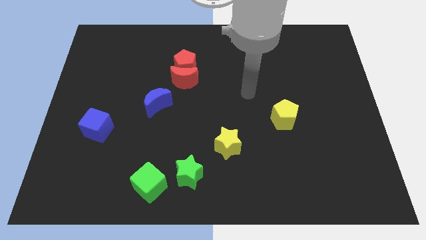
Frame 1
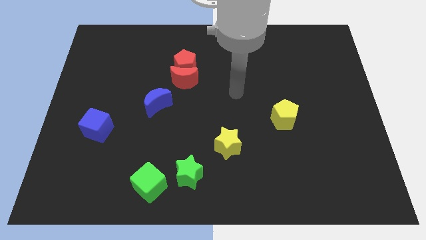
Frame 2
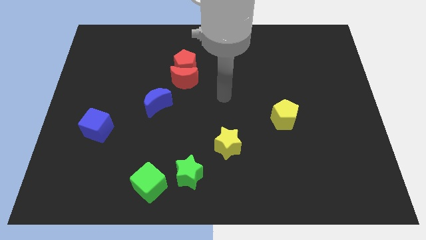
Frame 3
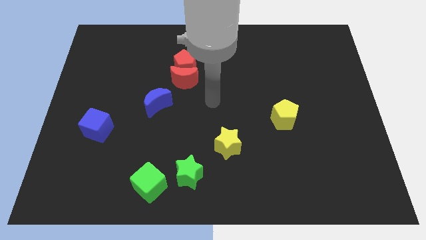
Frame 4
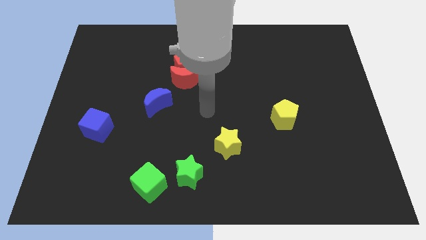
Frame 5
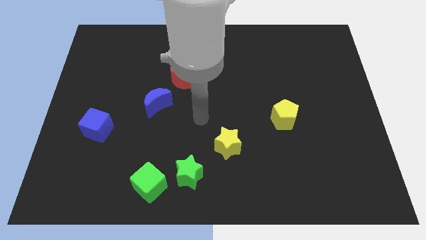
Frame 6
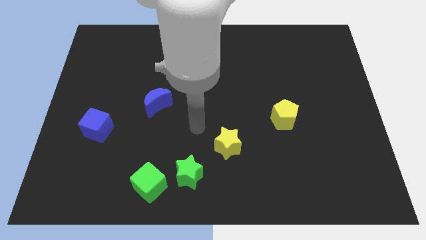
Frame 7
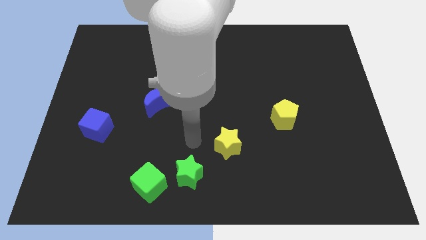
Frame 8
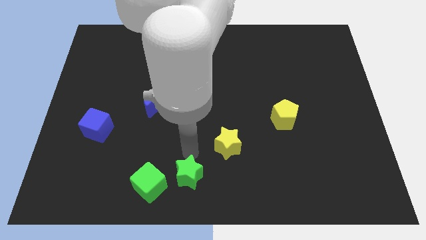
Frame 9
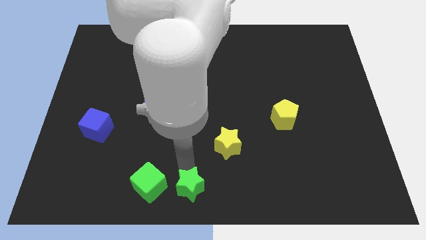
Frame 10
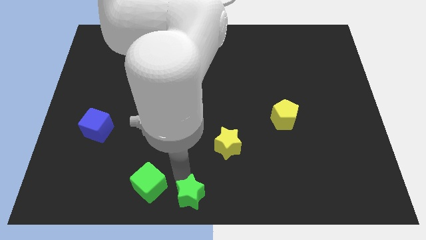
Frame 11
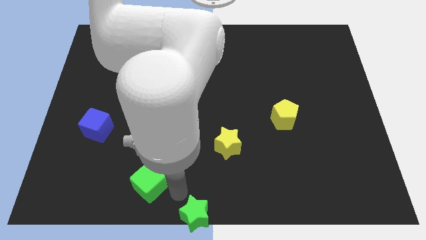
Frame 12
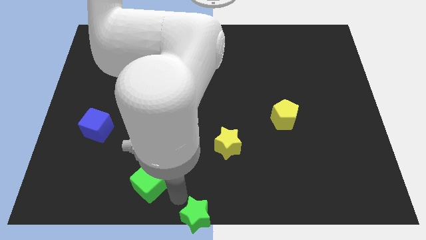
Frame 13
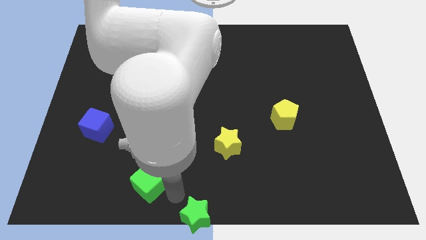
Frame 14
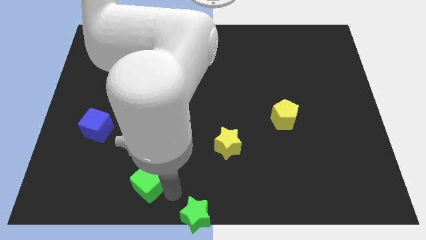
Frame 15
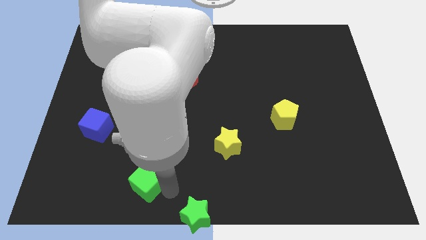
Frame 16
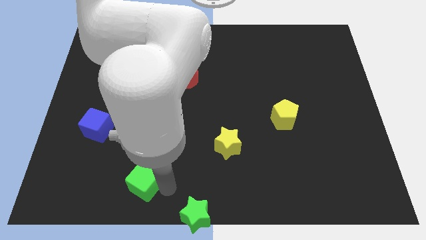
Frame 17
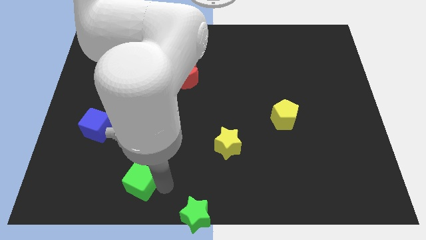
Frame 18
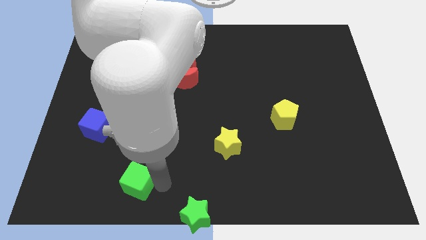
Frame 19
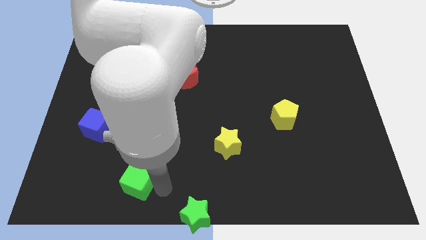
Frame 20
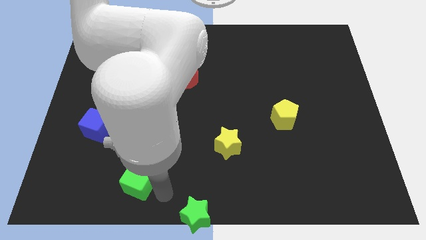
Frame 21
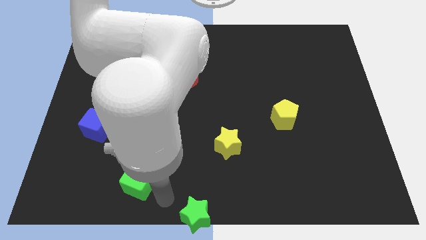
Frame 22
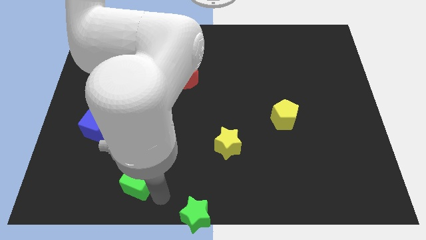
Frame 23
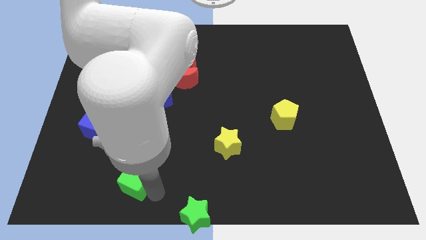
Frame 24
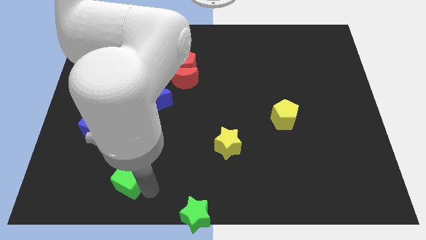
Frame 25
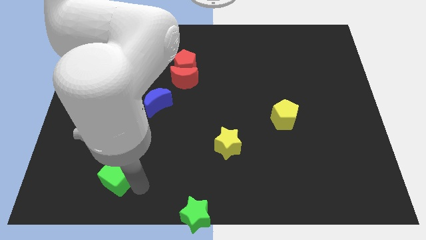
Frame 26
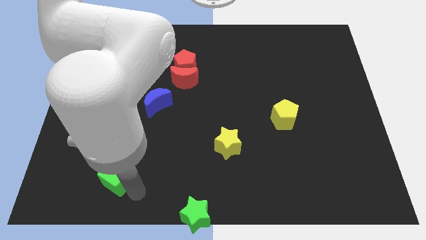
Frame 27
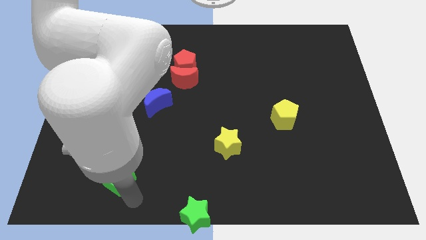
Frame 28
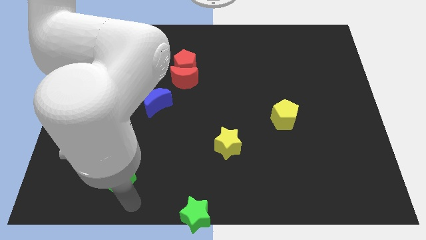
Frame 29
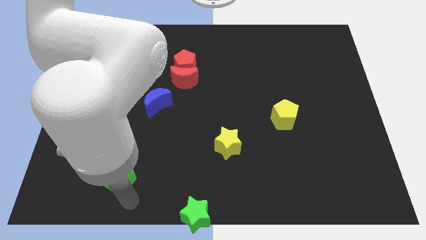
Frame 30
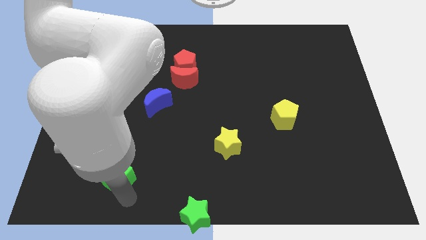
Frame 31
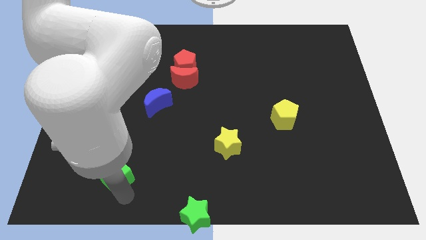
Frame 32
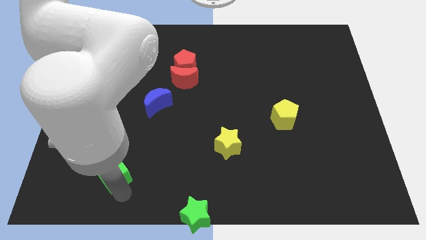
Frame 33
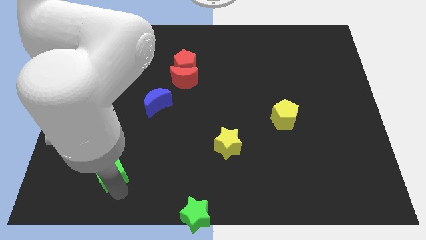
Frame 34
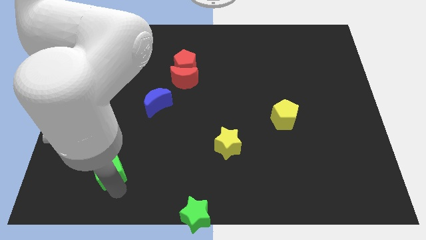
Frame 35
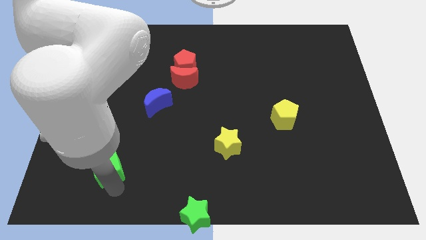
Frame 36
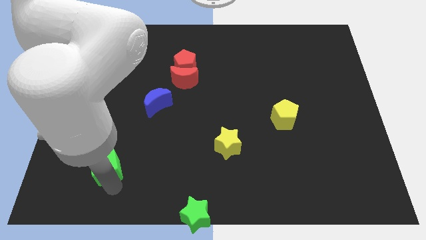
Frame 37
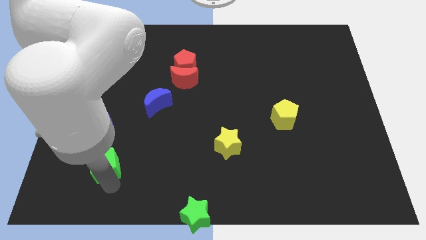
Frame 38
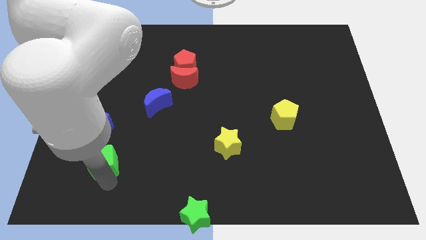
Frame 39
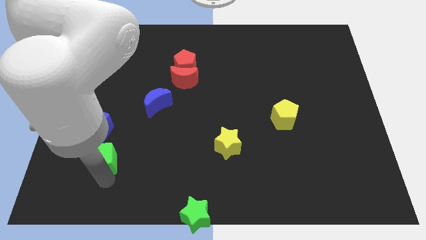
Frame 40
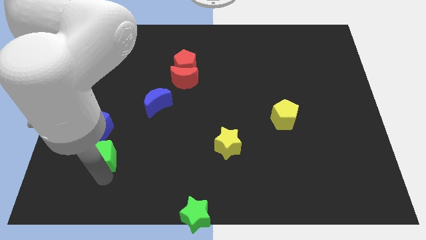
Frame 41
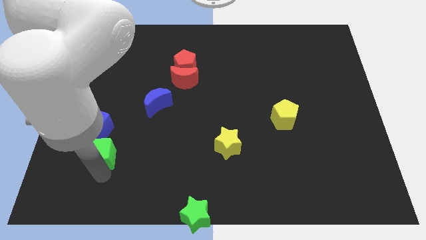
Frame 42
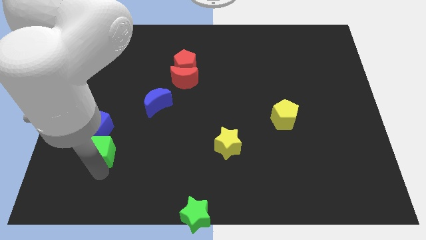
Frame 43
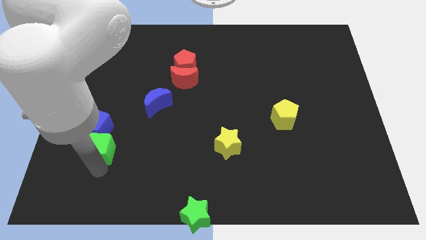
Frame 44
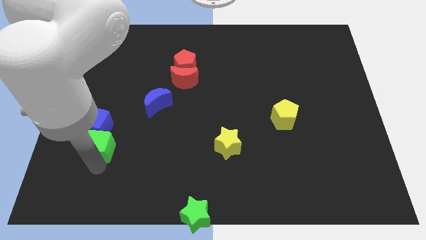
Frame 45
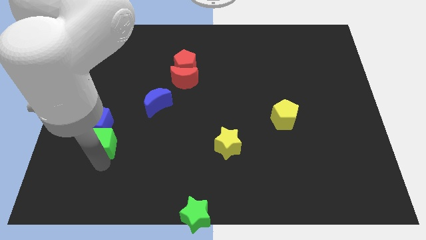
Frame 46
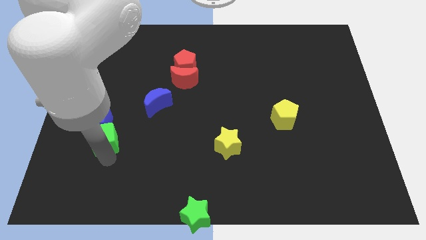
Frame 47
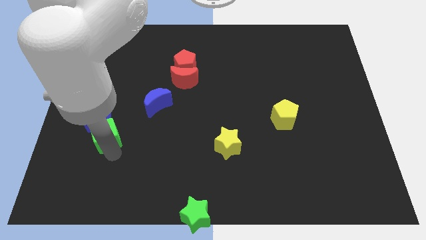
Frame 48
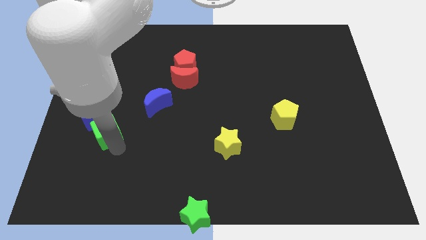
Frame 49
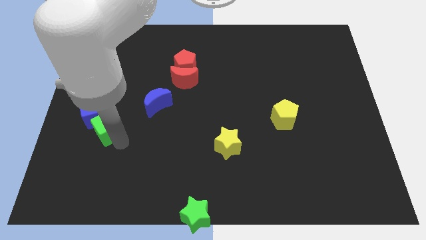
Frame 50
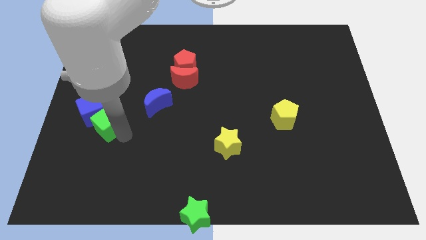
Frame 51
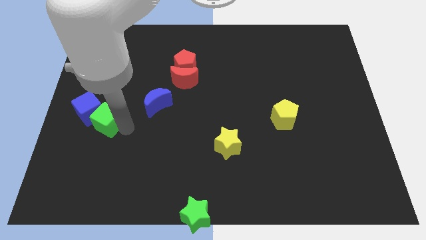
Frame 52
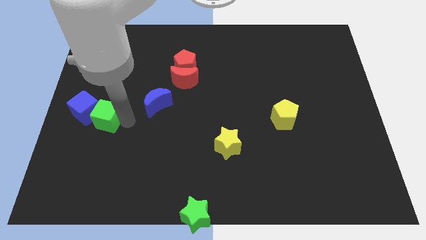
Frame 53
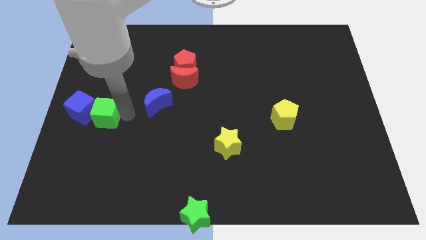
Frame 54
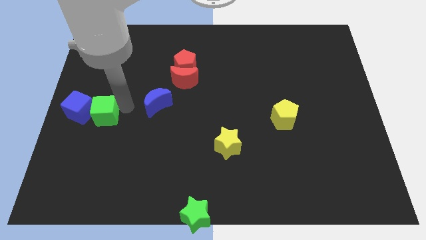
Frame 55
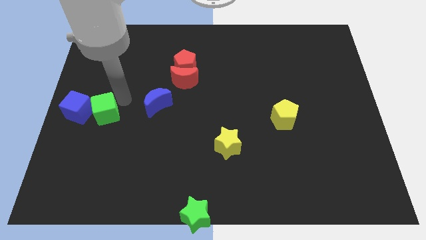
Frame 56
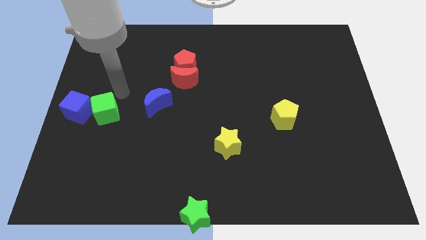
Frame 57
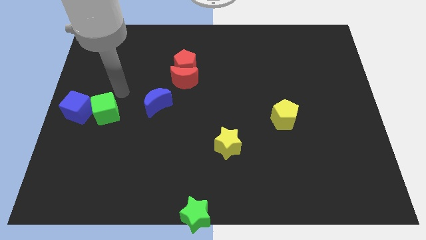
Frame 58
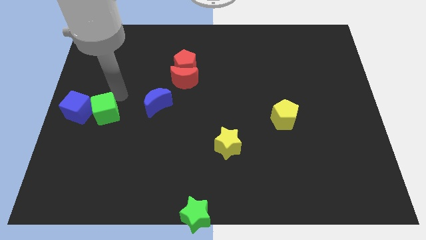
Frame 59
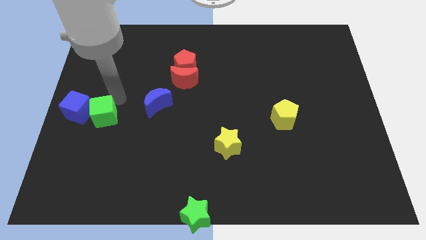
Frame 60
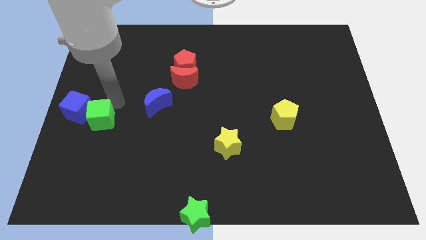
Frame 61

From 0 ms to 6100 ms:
push the green cube to the left side of the board

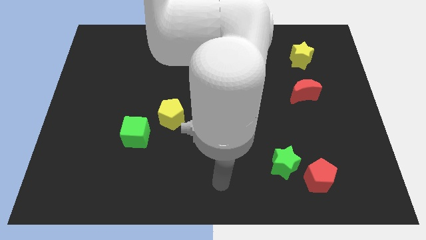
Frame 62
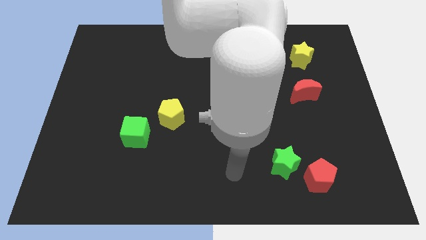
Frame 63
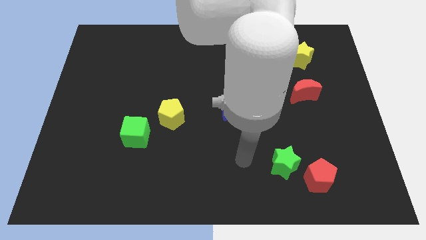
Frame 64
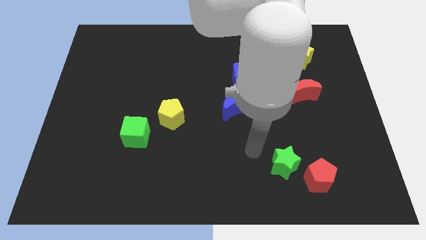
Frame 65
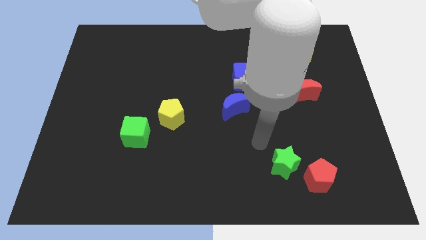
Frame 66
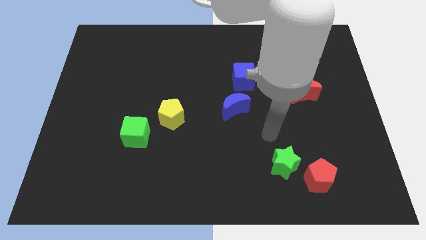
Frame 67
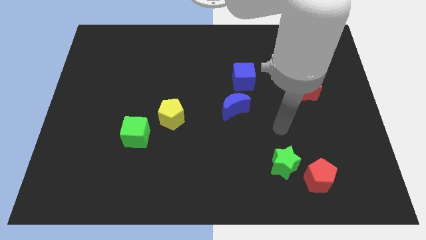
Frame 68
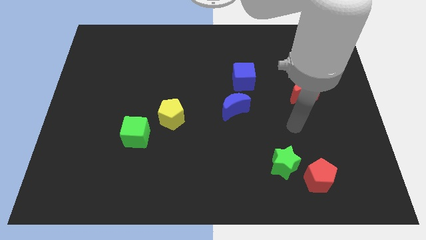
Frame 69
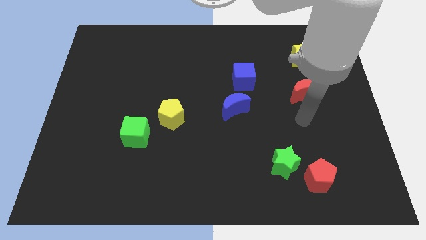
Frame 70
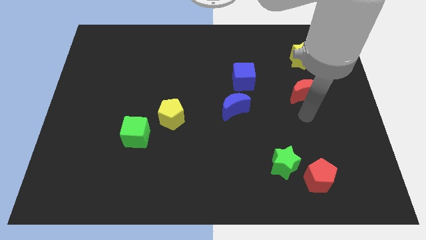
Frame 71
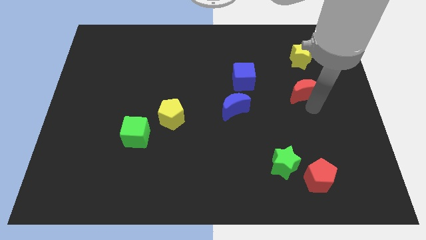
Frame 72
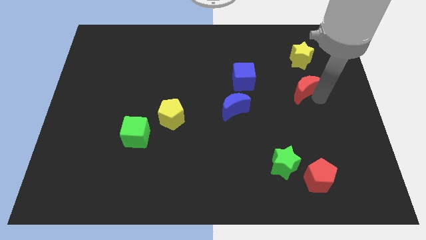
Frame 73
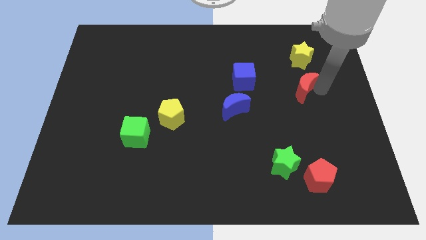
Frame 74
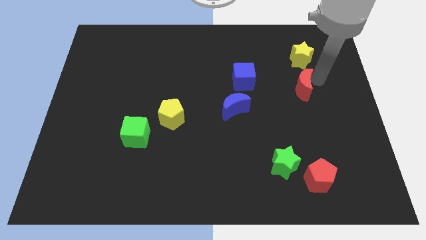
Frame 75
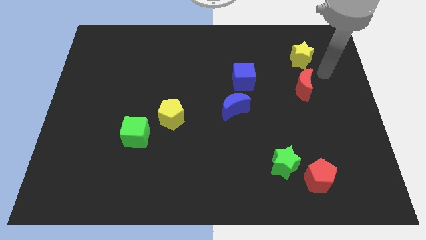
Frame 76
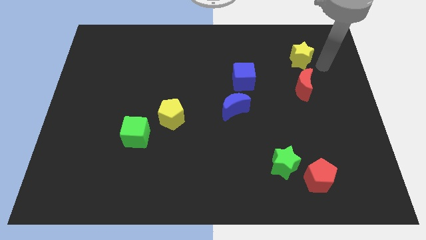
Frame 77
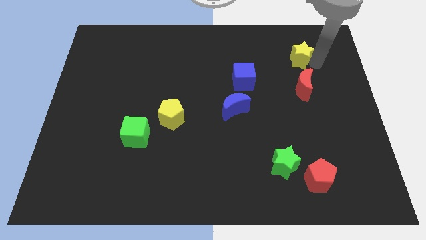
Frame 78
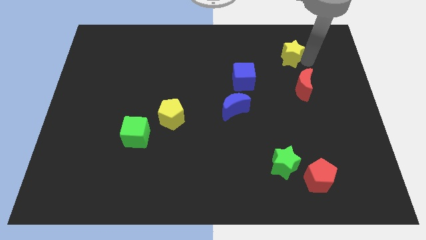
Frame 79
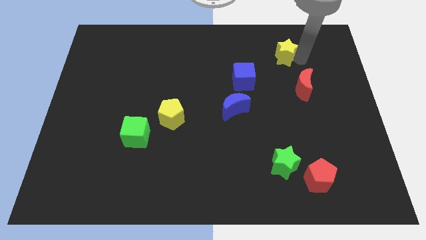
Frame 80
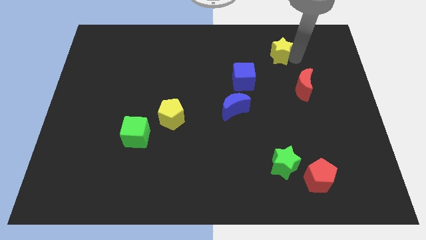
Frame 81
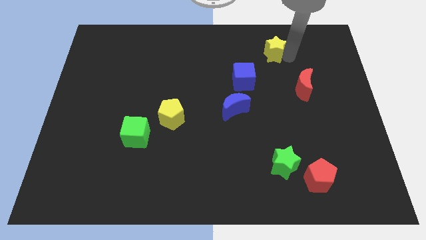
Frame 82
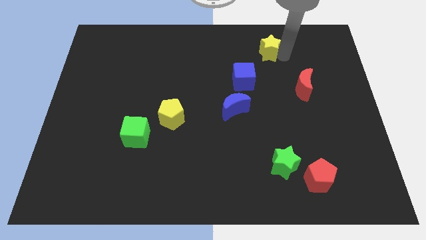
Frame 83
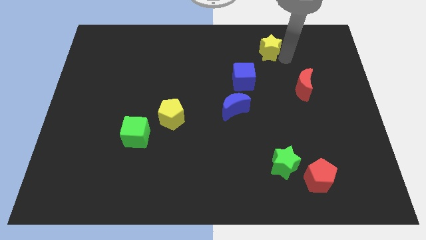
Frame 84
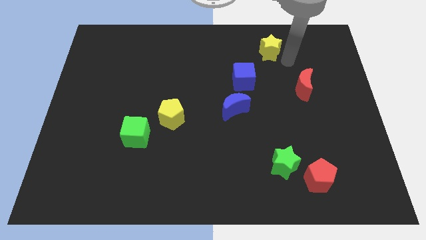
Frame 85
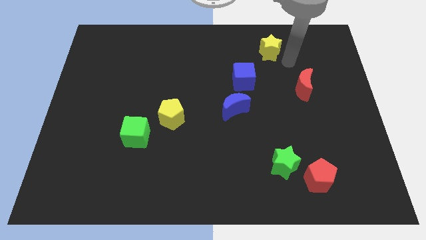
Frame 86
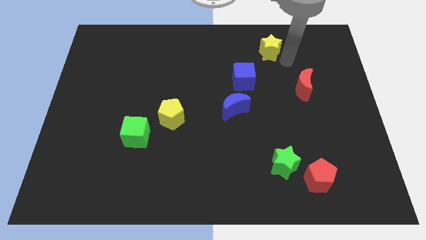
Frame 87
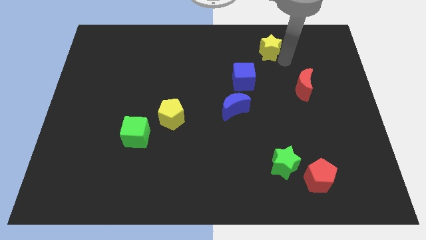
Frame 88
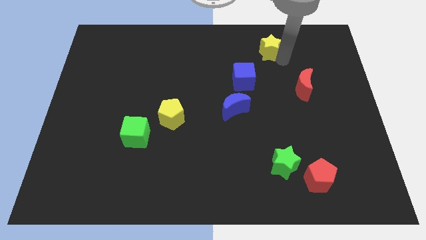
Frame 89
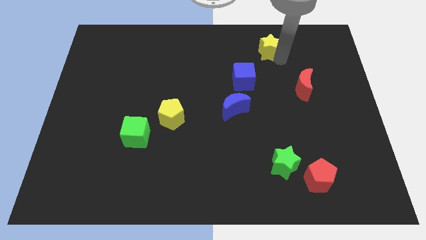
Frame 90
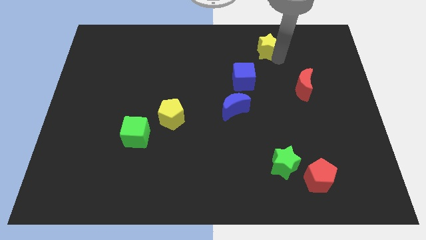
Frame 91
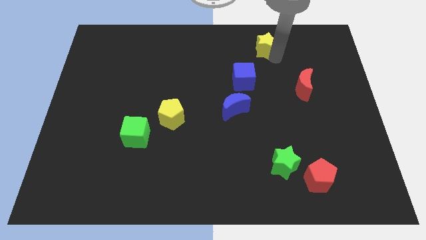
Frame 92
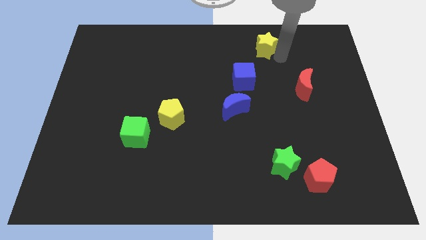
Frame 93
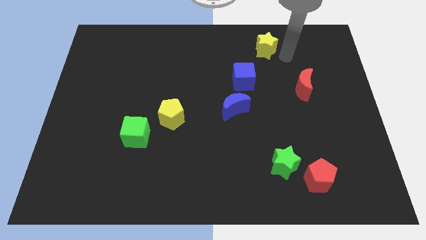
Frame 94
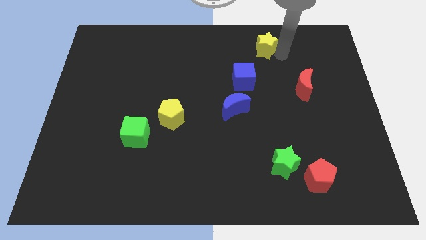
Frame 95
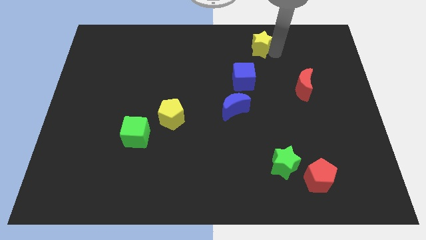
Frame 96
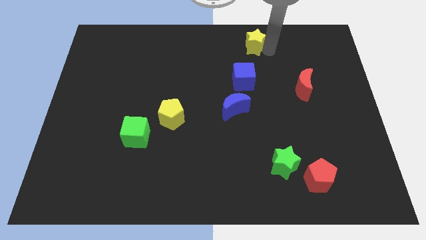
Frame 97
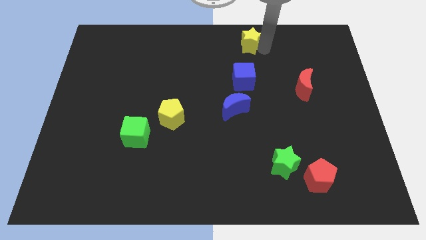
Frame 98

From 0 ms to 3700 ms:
slide the yellow star to the towards your base
